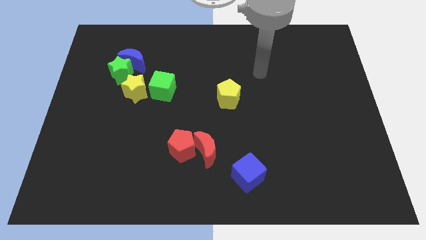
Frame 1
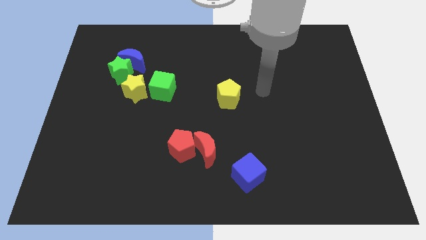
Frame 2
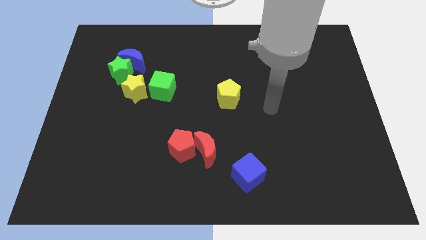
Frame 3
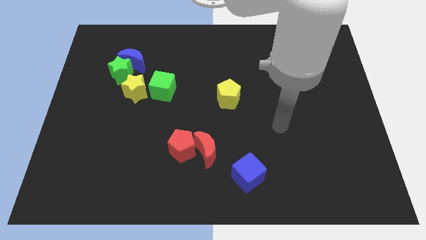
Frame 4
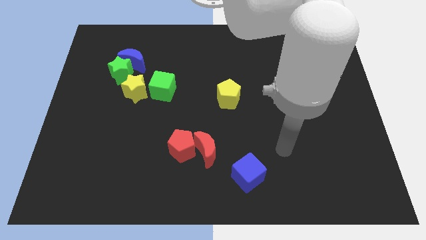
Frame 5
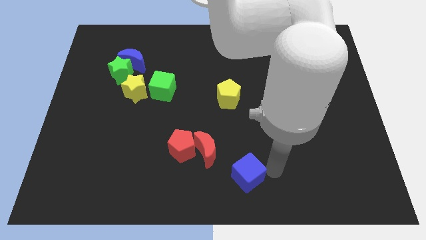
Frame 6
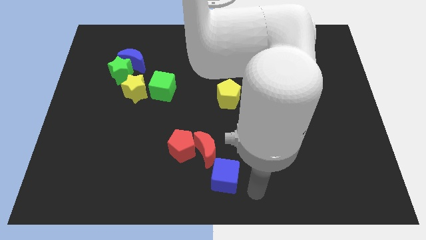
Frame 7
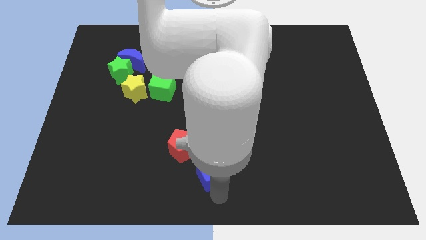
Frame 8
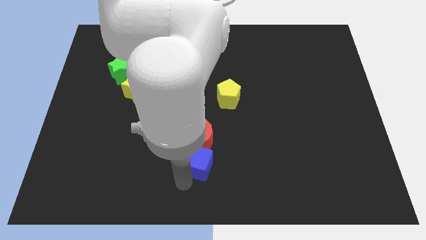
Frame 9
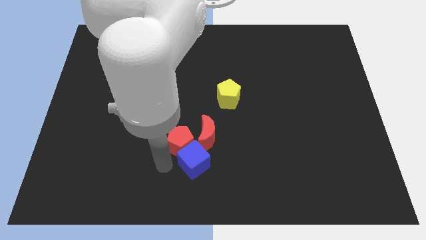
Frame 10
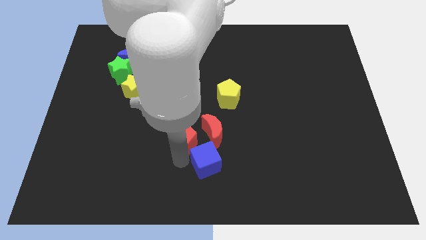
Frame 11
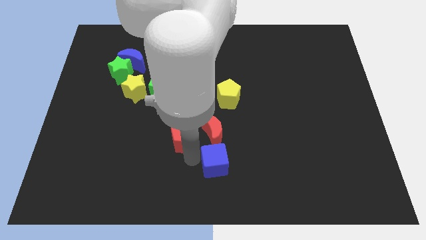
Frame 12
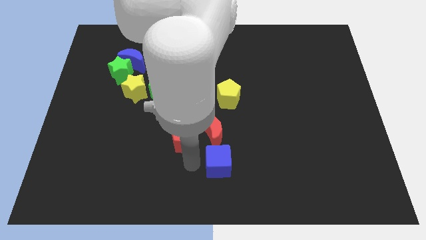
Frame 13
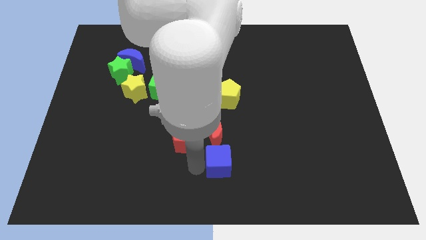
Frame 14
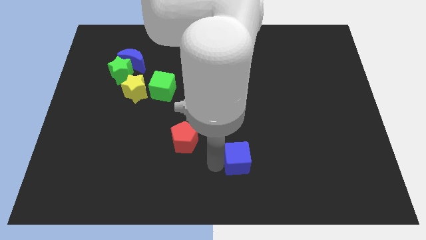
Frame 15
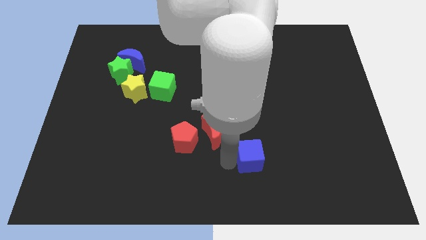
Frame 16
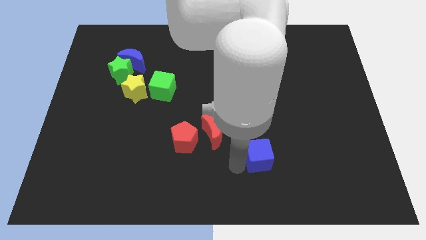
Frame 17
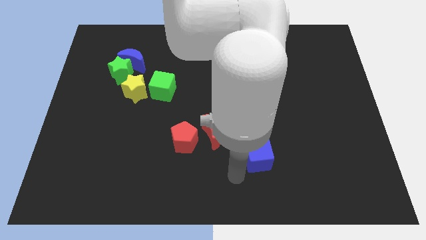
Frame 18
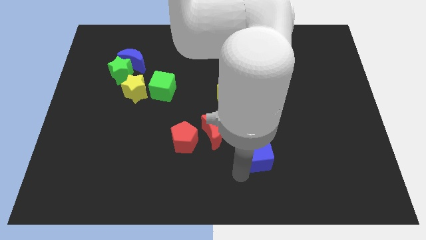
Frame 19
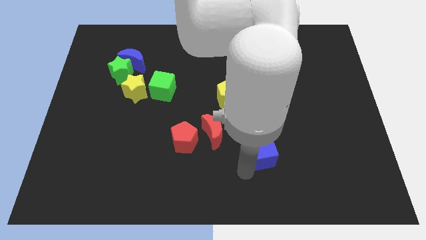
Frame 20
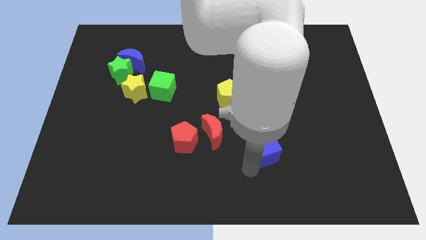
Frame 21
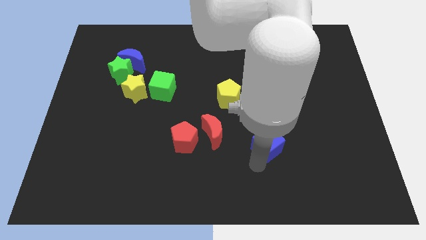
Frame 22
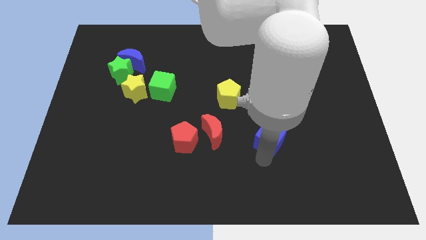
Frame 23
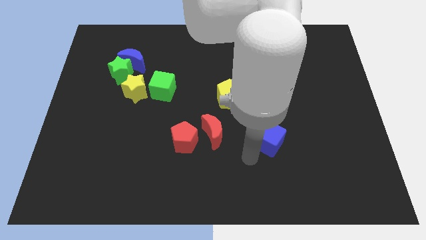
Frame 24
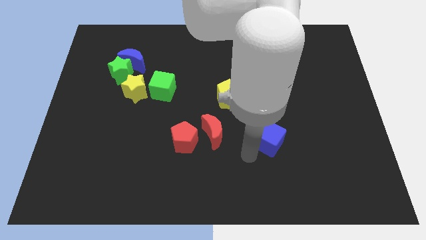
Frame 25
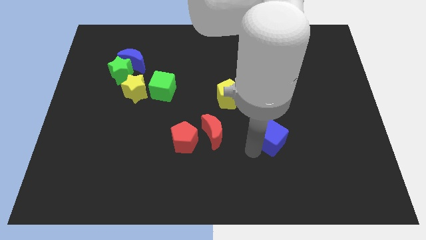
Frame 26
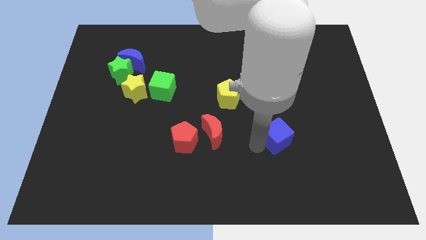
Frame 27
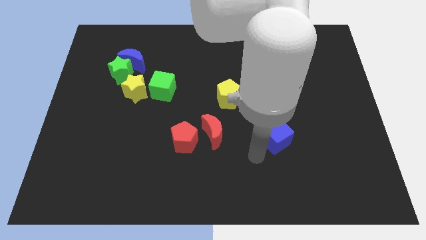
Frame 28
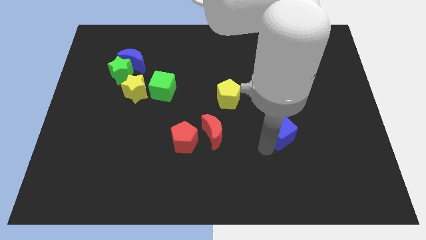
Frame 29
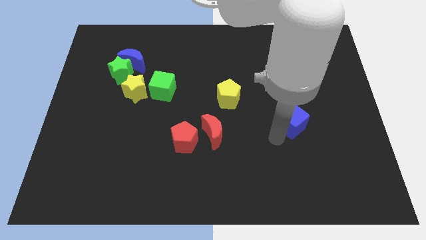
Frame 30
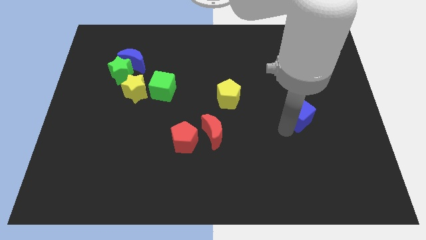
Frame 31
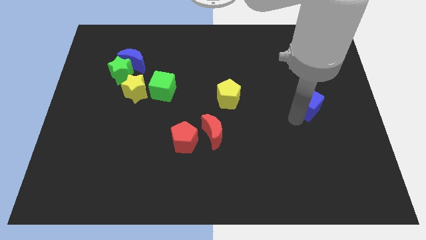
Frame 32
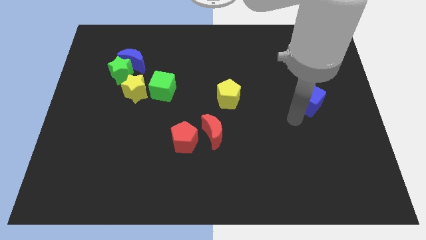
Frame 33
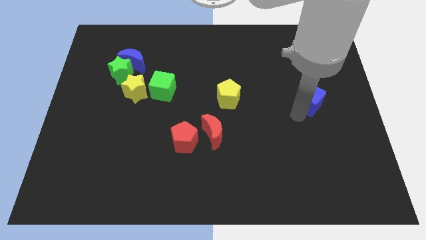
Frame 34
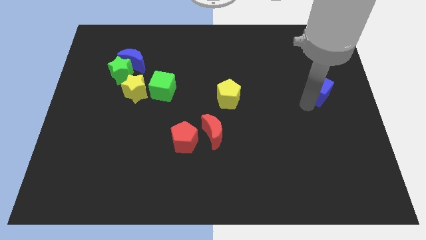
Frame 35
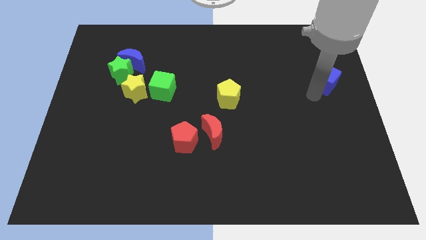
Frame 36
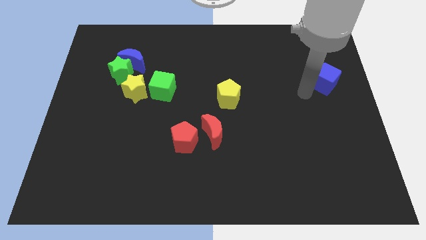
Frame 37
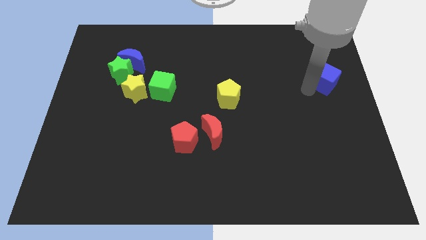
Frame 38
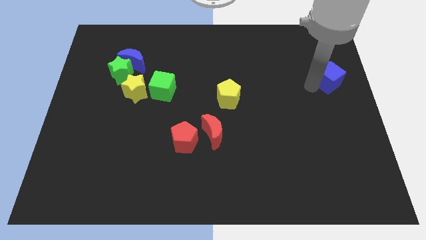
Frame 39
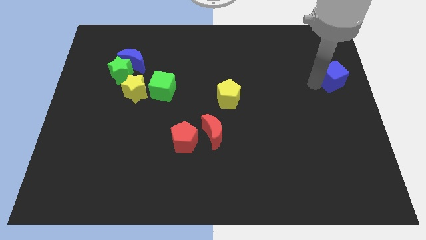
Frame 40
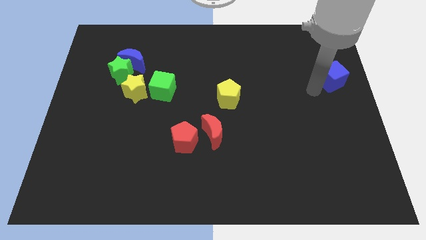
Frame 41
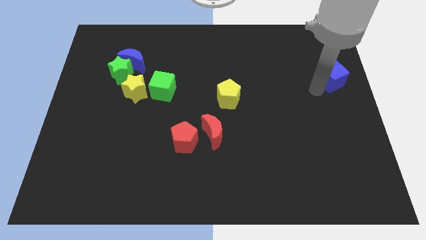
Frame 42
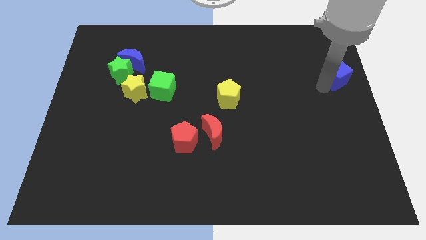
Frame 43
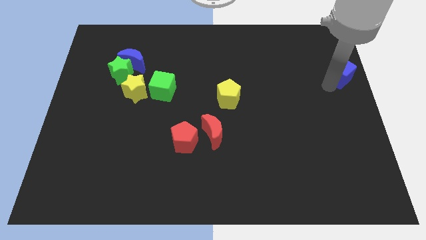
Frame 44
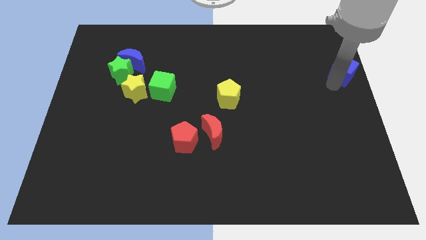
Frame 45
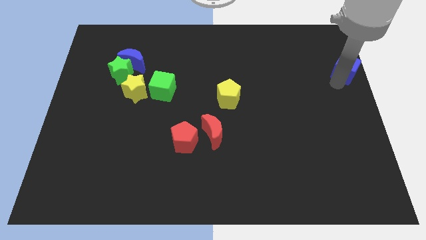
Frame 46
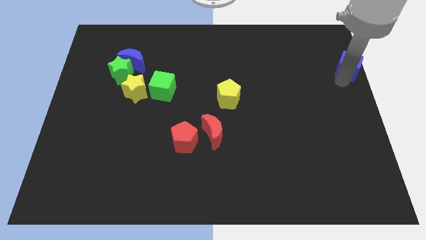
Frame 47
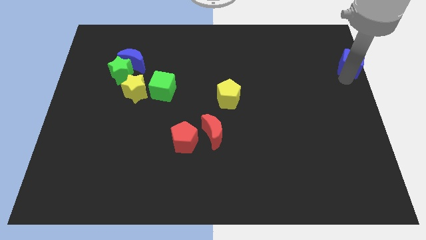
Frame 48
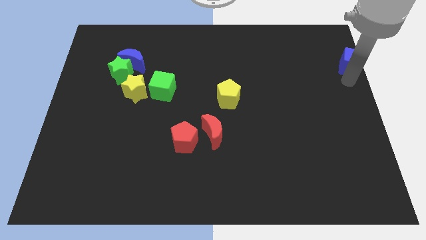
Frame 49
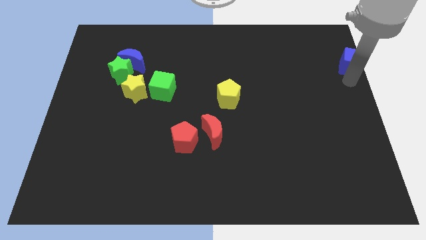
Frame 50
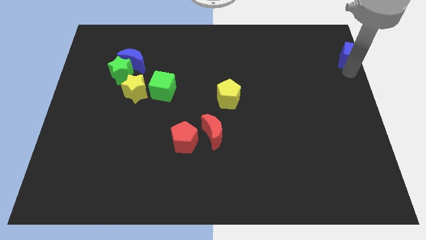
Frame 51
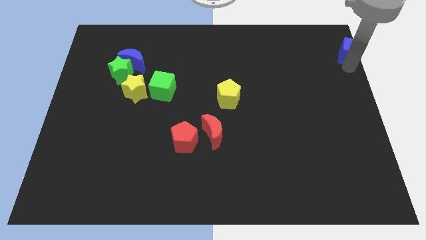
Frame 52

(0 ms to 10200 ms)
put the blue cube to the top right corner

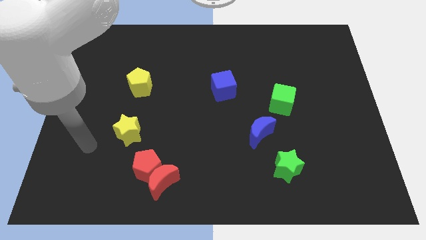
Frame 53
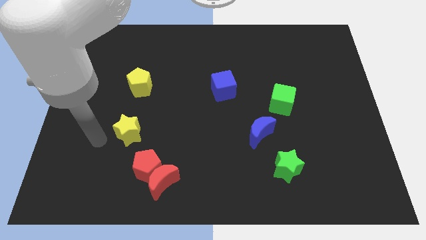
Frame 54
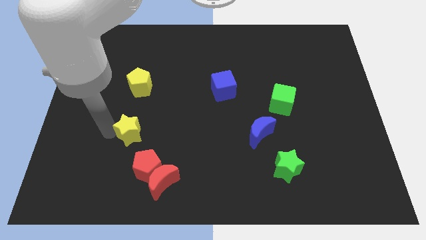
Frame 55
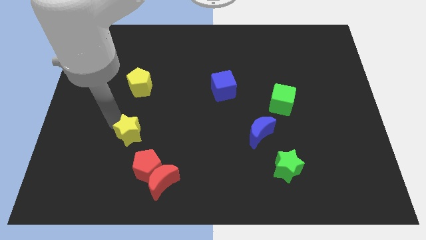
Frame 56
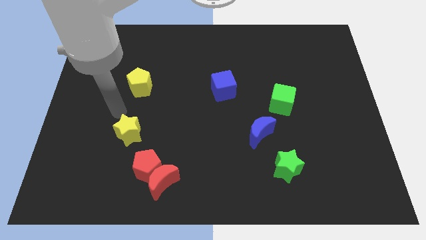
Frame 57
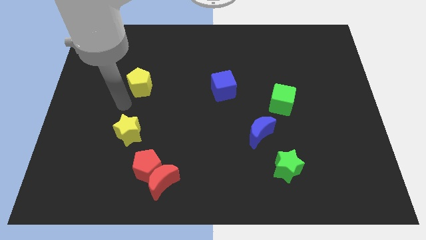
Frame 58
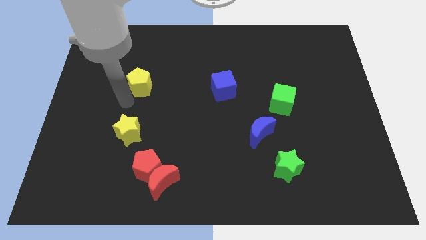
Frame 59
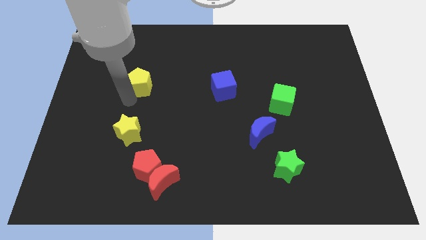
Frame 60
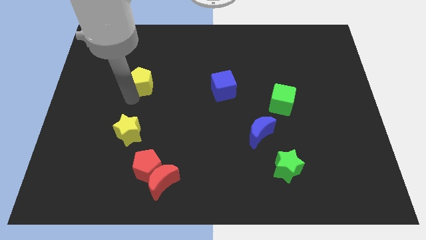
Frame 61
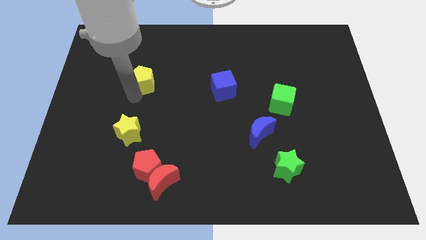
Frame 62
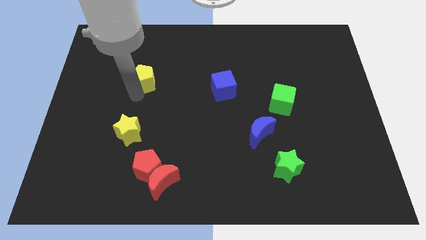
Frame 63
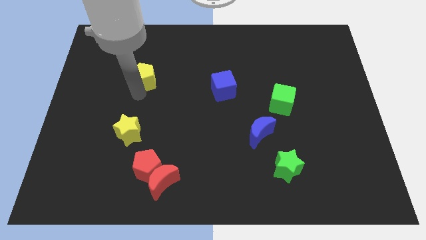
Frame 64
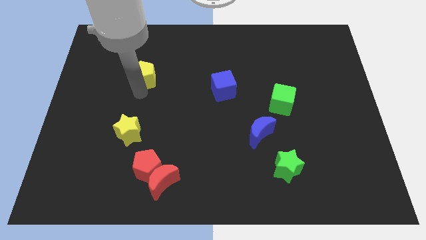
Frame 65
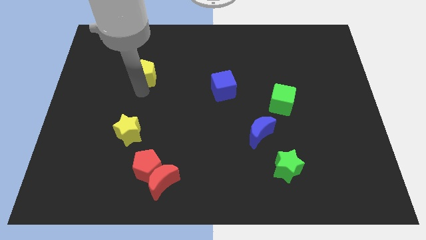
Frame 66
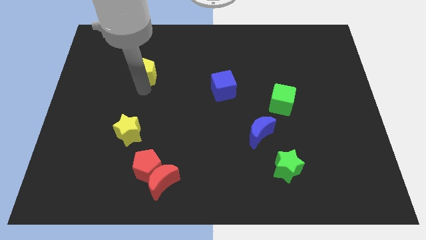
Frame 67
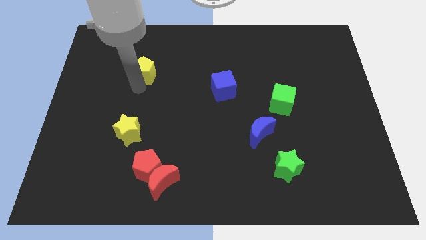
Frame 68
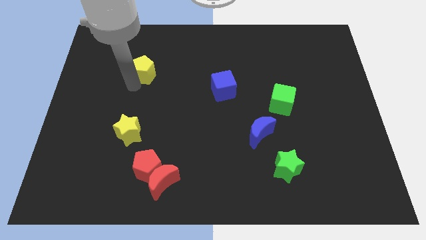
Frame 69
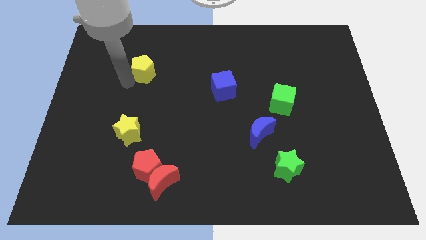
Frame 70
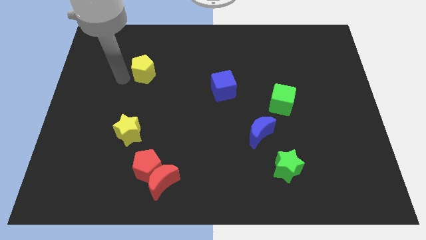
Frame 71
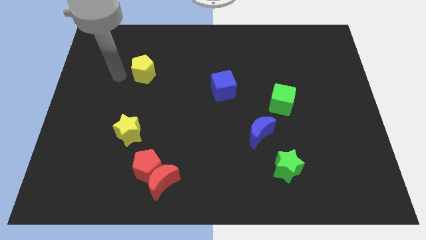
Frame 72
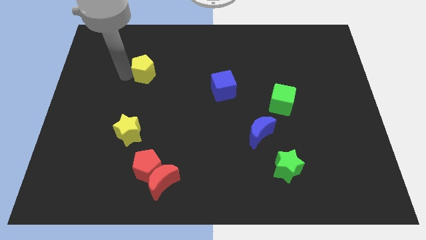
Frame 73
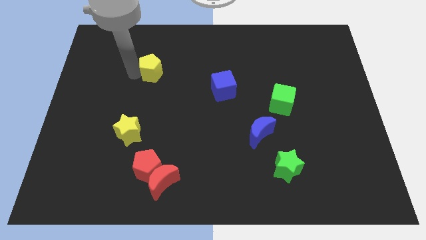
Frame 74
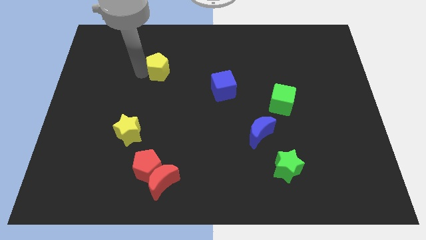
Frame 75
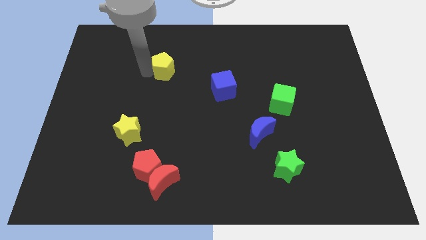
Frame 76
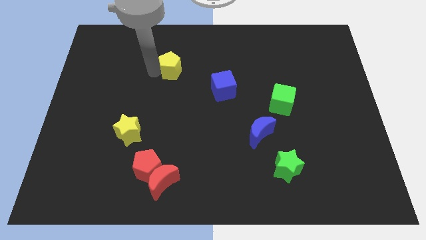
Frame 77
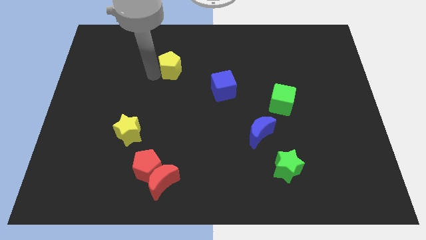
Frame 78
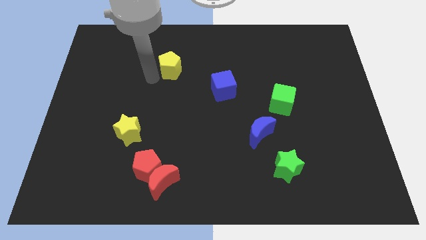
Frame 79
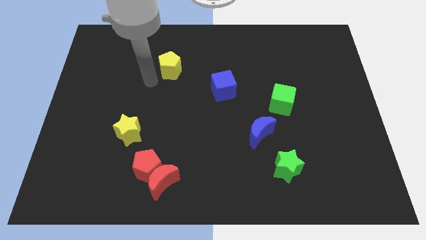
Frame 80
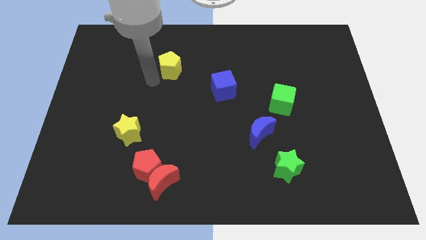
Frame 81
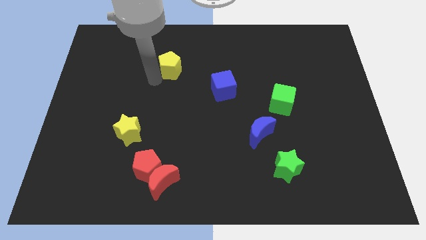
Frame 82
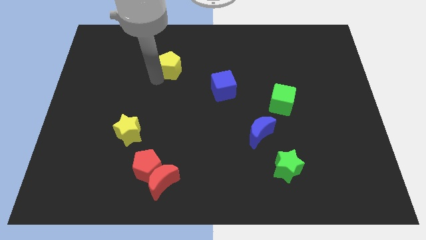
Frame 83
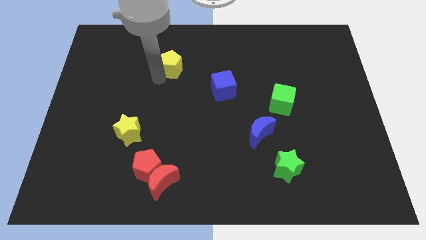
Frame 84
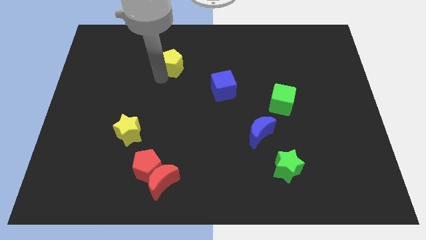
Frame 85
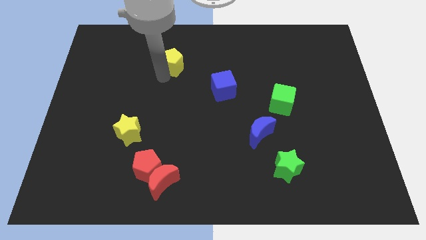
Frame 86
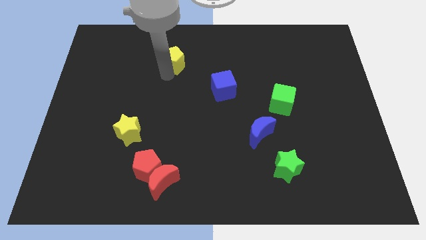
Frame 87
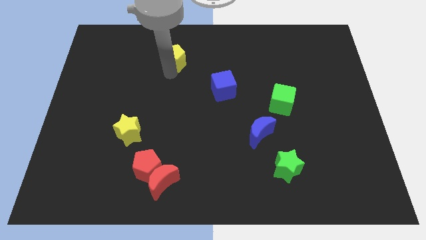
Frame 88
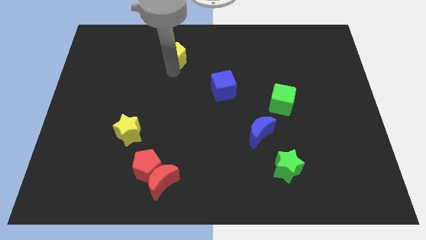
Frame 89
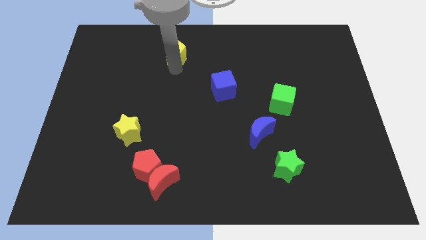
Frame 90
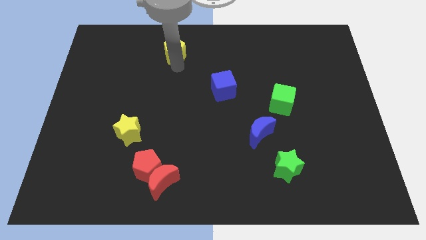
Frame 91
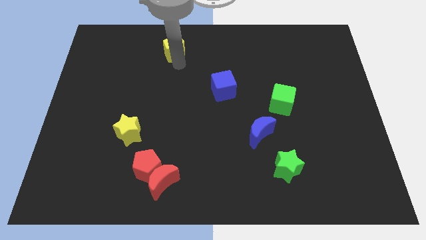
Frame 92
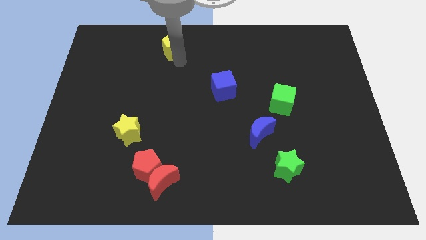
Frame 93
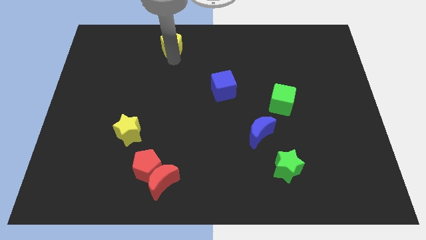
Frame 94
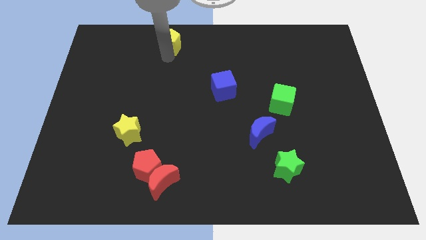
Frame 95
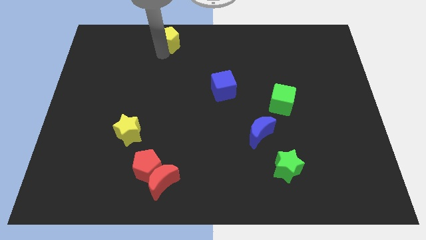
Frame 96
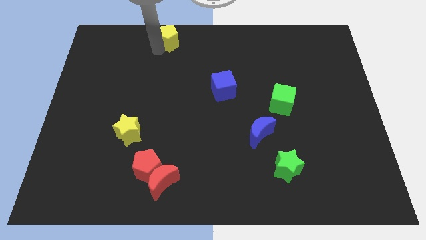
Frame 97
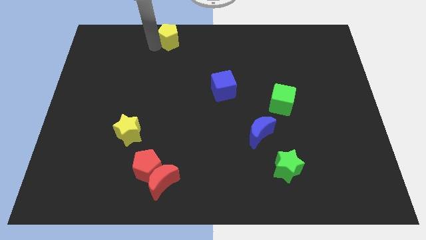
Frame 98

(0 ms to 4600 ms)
put the yellow pentagon to the top side
